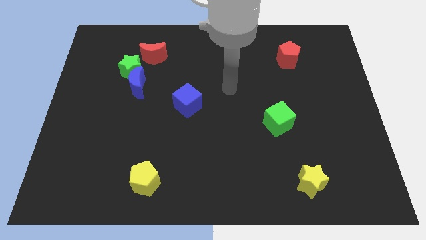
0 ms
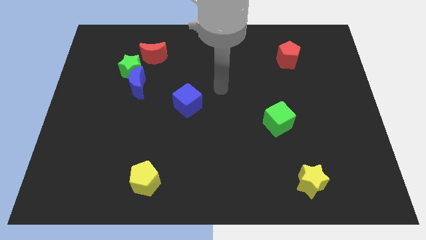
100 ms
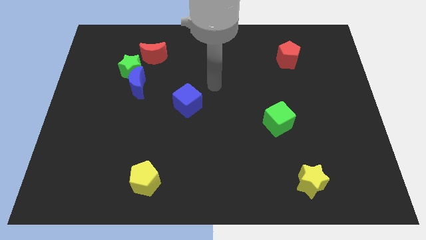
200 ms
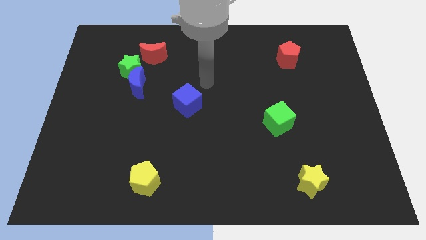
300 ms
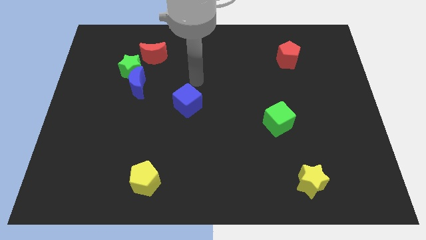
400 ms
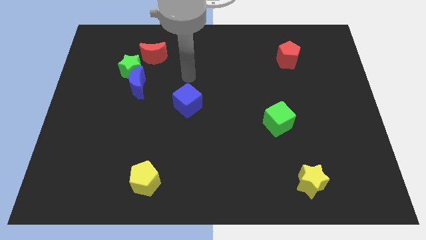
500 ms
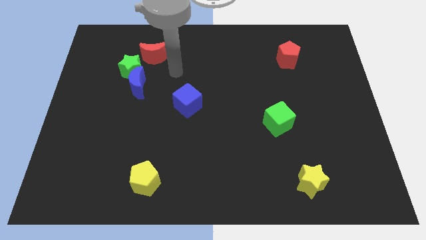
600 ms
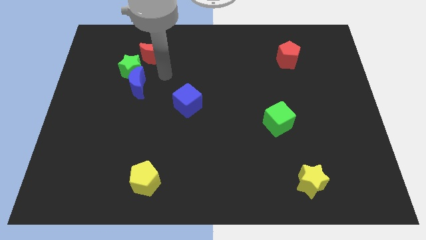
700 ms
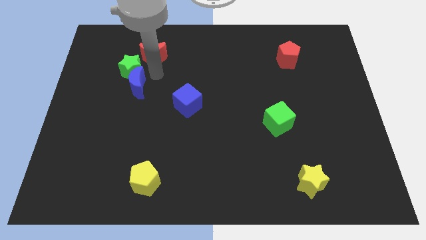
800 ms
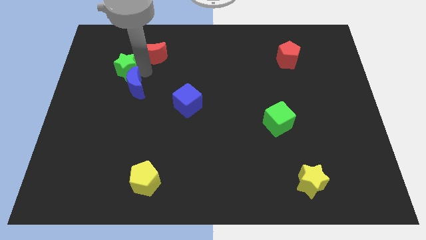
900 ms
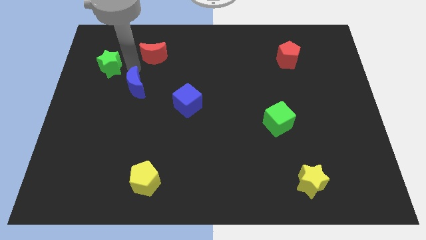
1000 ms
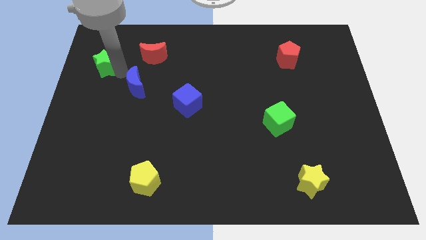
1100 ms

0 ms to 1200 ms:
pull the blue moon apart from the green star

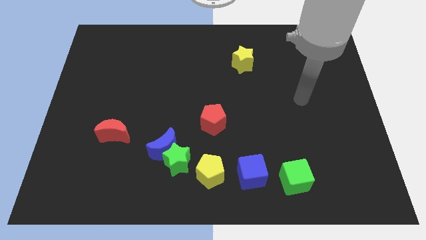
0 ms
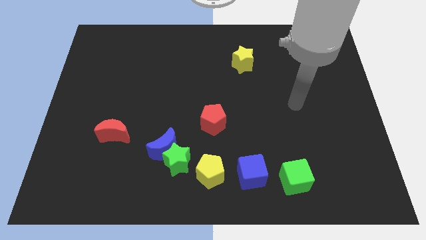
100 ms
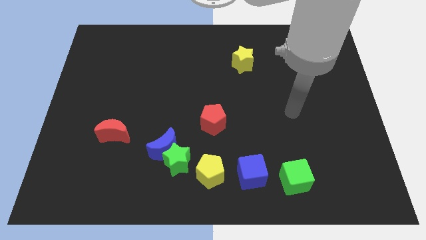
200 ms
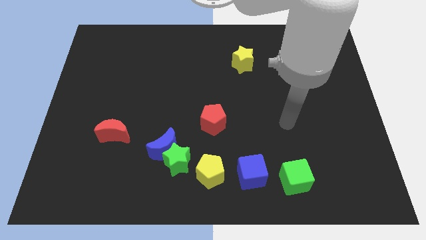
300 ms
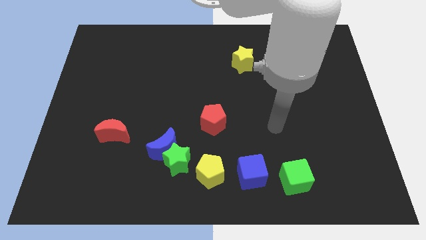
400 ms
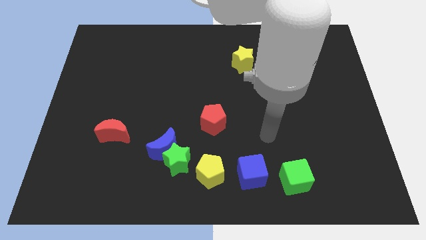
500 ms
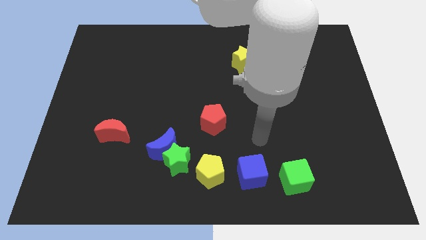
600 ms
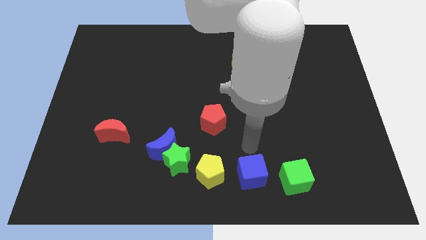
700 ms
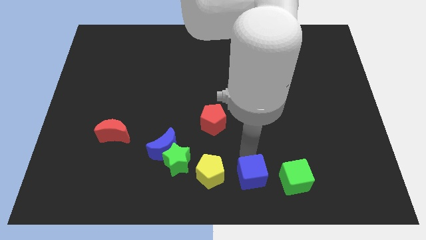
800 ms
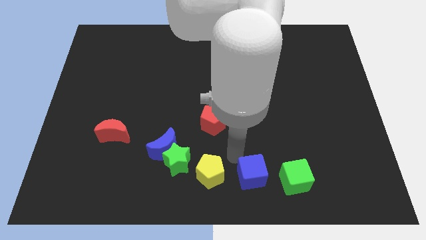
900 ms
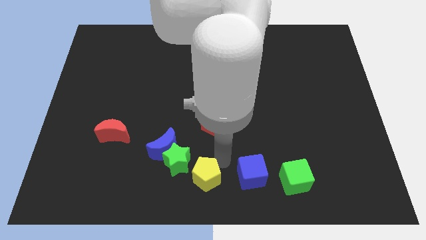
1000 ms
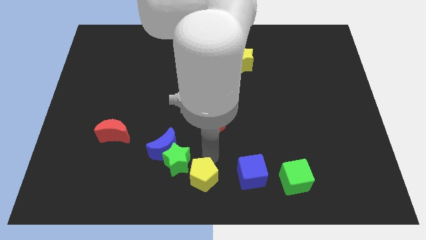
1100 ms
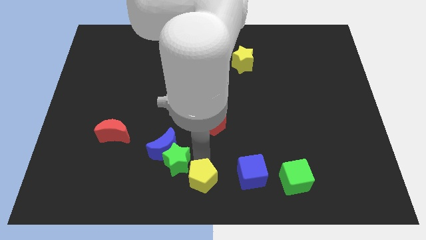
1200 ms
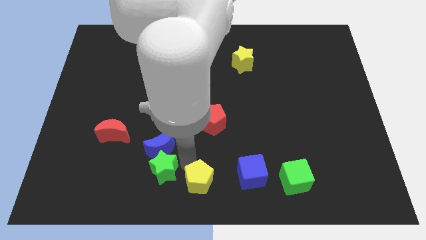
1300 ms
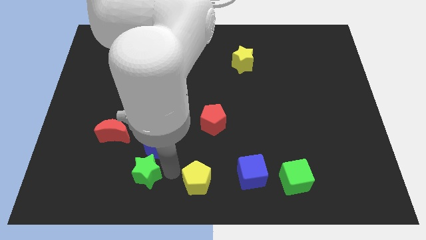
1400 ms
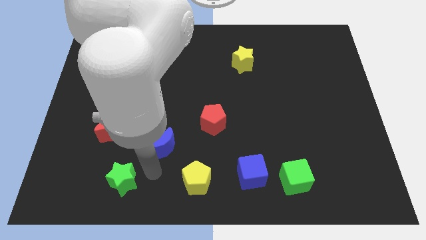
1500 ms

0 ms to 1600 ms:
separate the blue moon from the green star

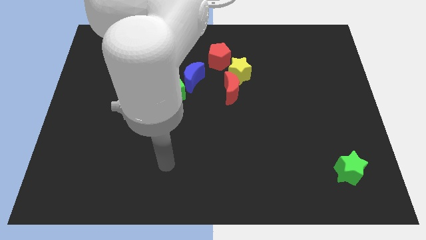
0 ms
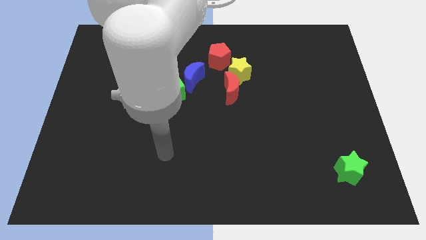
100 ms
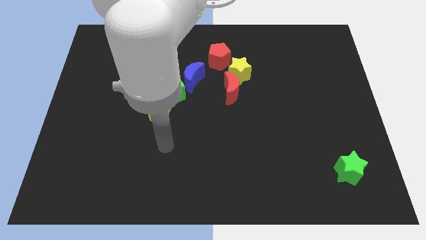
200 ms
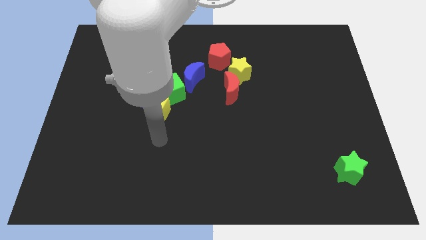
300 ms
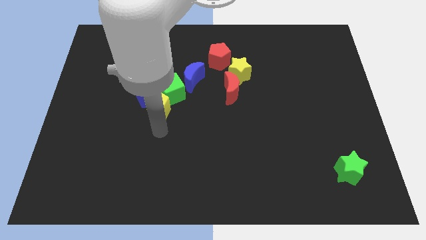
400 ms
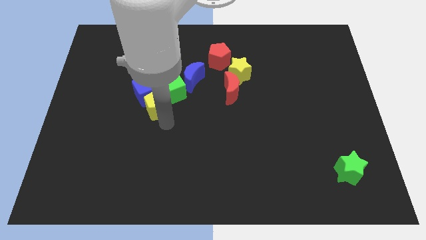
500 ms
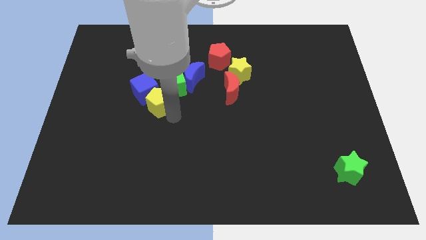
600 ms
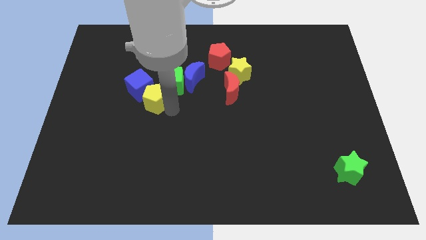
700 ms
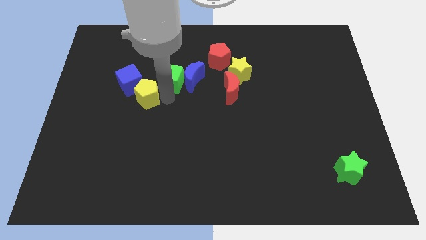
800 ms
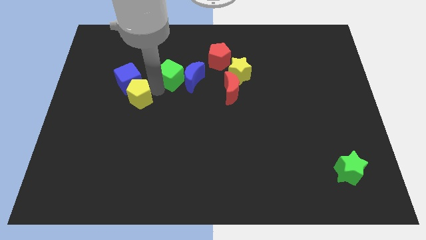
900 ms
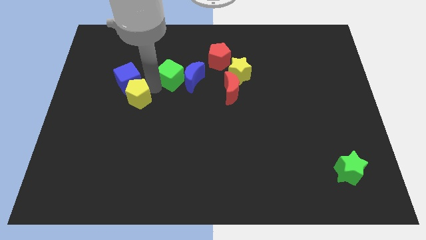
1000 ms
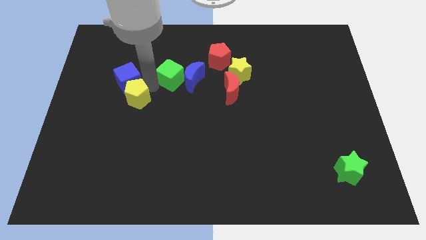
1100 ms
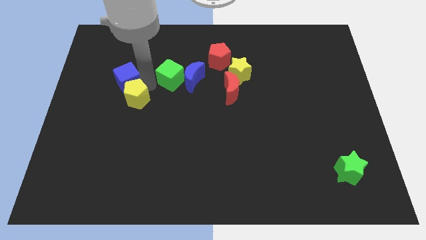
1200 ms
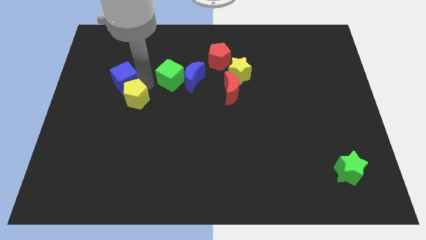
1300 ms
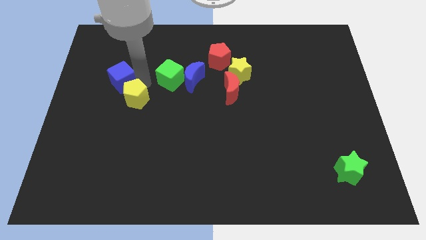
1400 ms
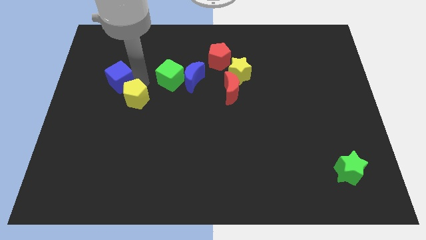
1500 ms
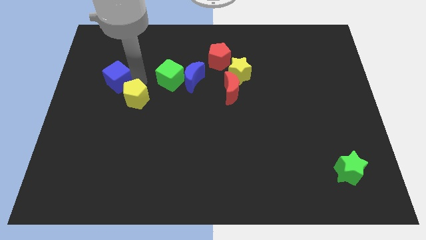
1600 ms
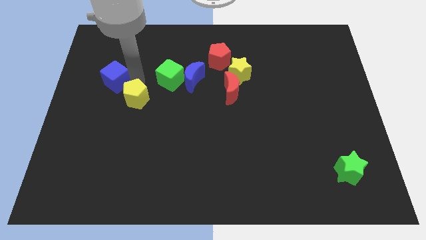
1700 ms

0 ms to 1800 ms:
pull the blue cube apart from the yellow pentagon and green cube

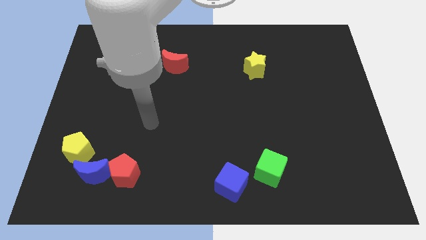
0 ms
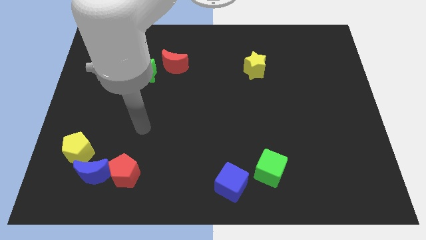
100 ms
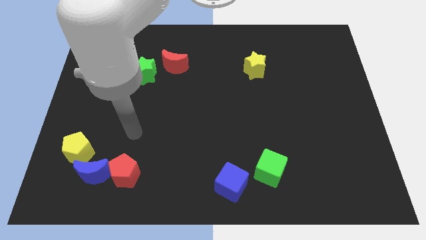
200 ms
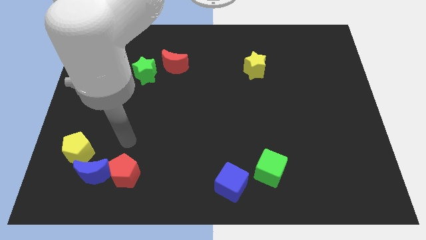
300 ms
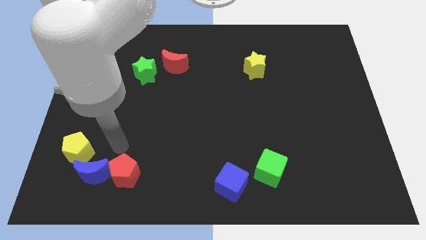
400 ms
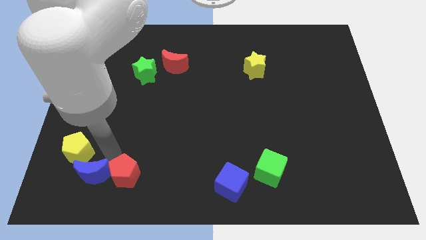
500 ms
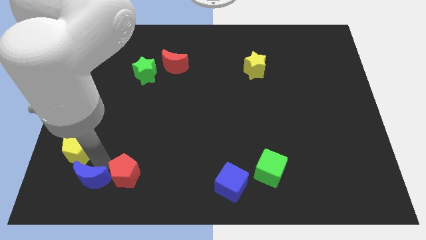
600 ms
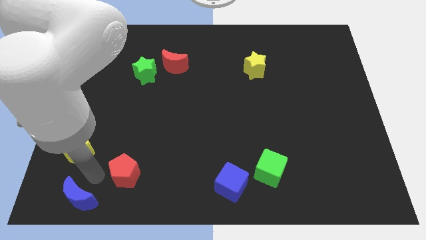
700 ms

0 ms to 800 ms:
pull the red pentagon apart from the blue moon

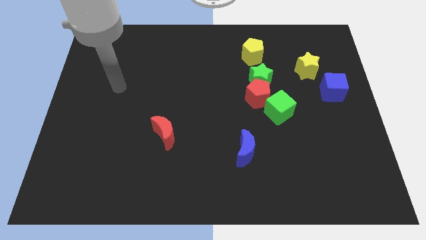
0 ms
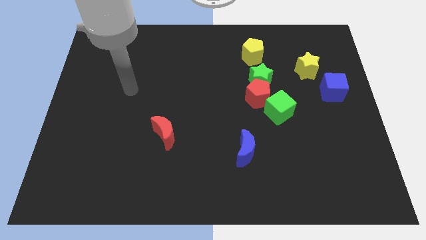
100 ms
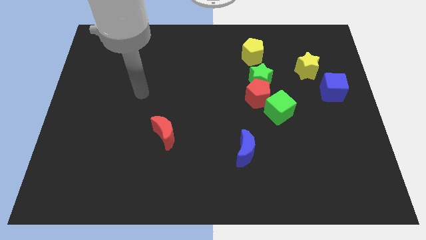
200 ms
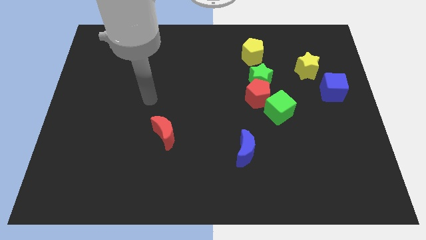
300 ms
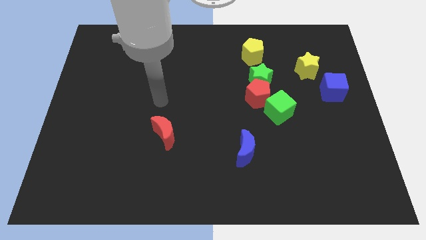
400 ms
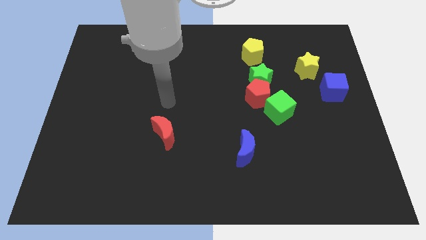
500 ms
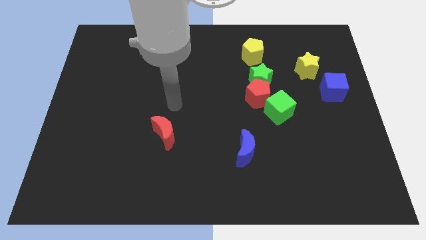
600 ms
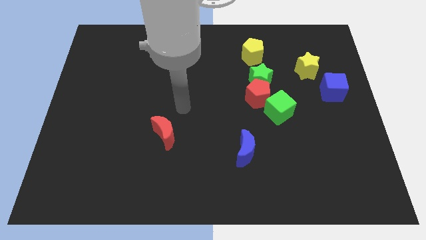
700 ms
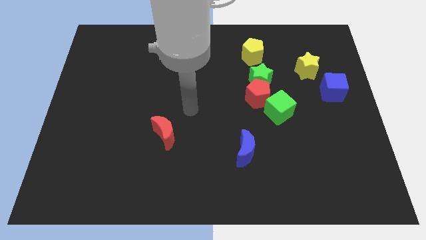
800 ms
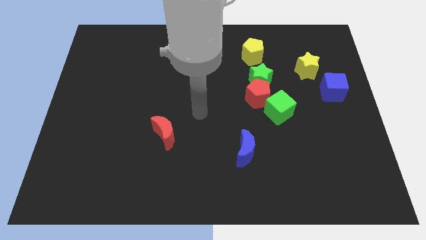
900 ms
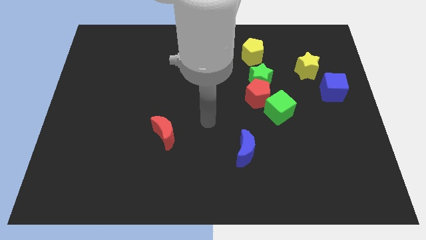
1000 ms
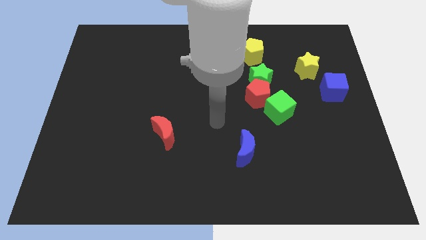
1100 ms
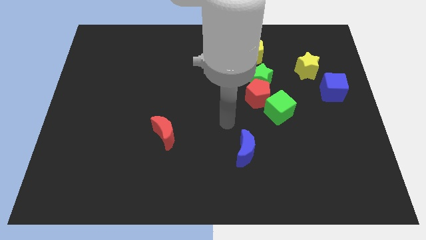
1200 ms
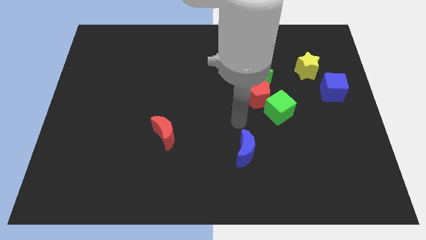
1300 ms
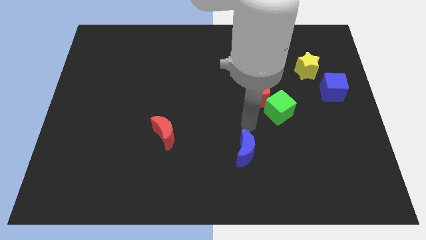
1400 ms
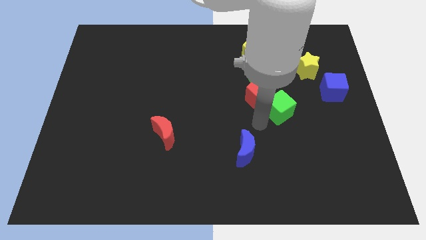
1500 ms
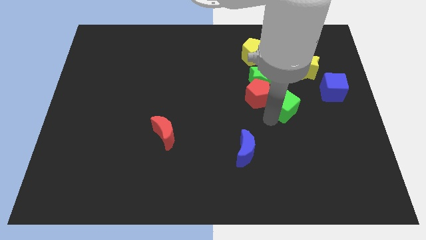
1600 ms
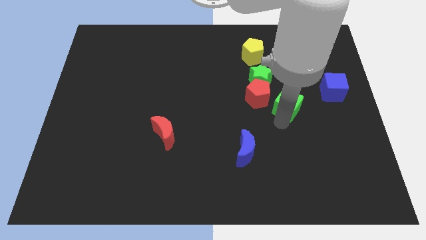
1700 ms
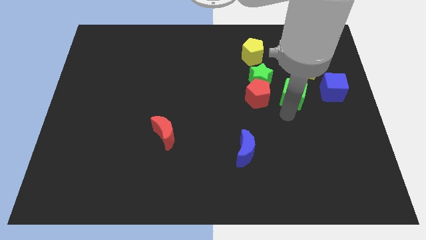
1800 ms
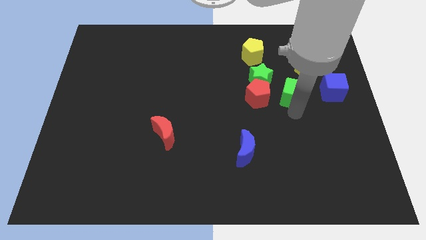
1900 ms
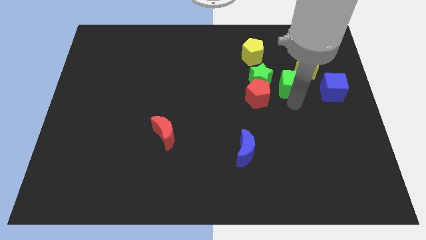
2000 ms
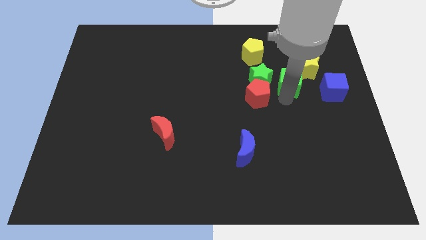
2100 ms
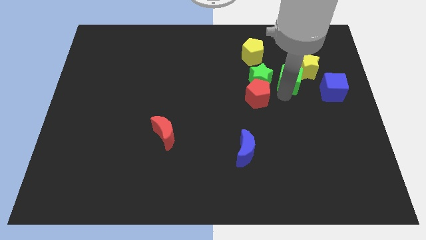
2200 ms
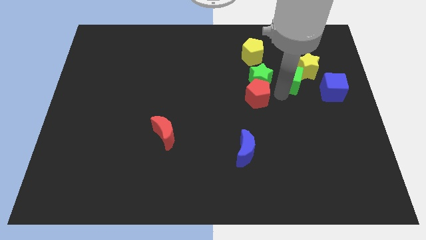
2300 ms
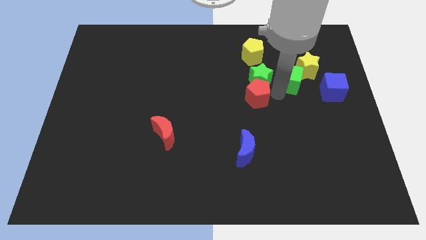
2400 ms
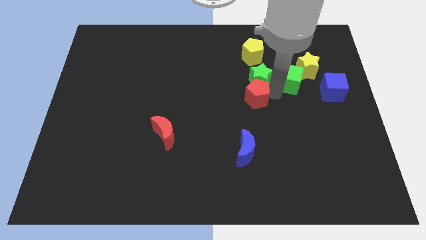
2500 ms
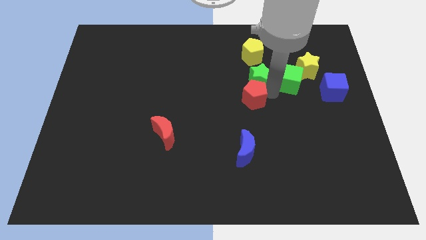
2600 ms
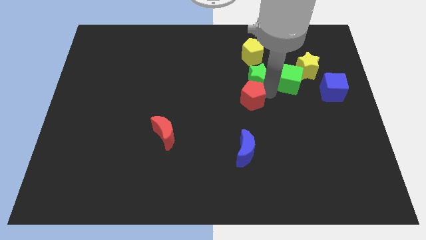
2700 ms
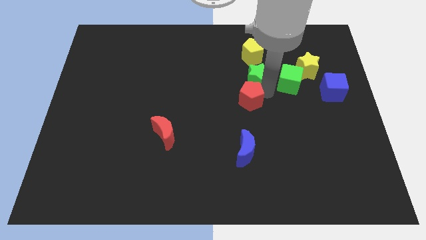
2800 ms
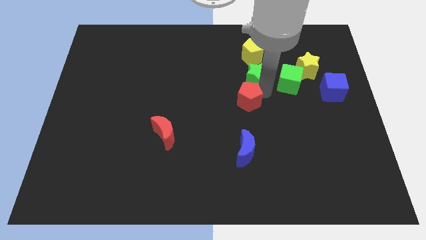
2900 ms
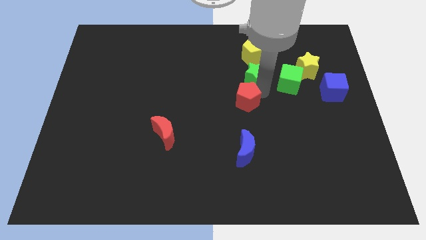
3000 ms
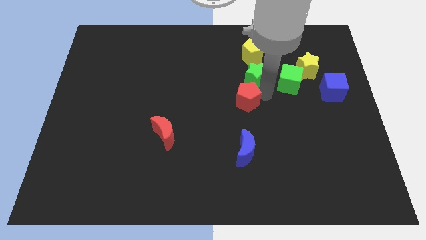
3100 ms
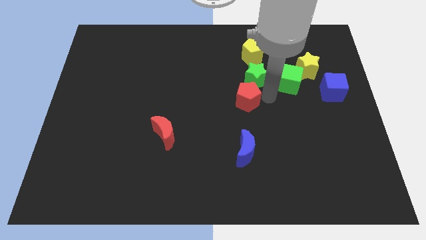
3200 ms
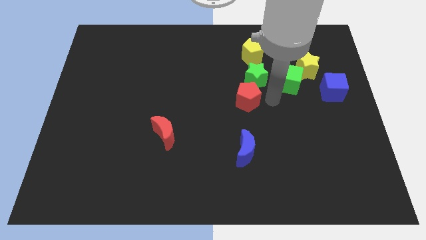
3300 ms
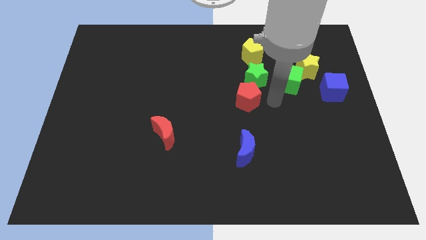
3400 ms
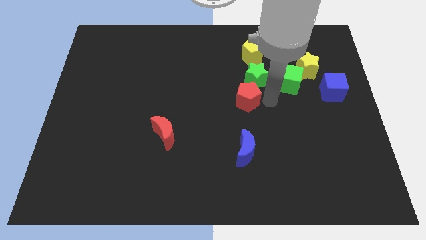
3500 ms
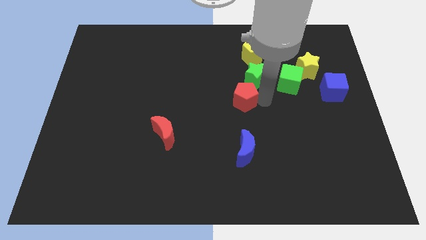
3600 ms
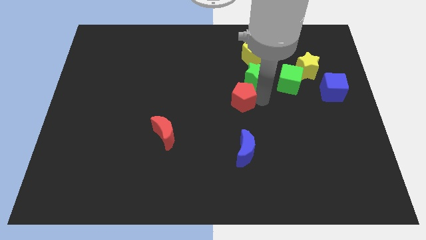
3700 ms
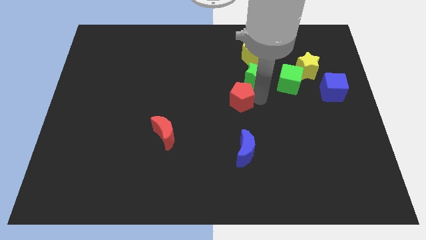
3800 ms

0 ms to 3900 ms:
move the red pentagon away from the green star and green cube
